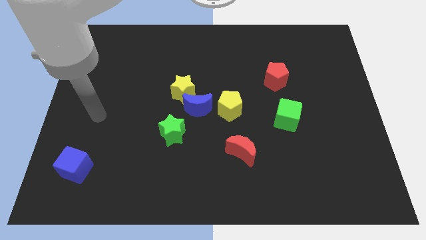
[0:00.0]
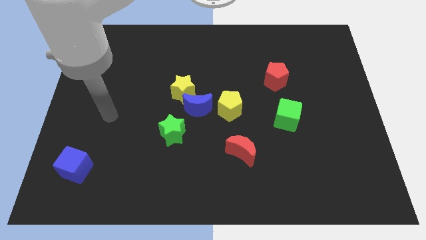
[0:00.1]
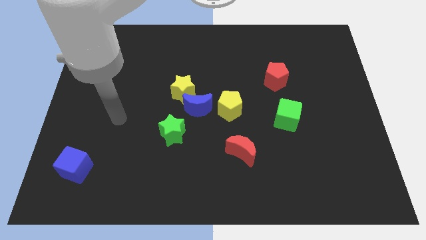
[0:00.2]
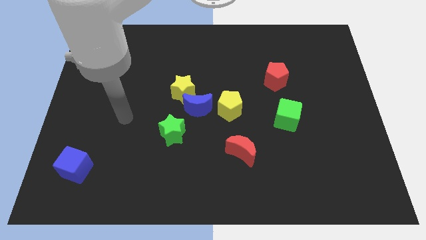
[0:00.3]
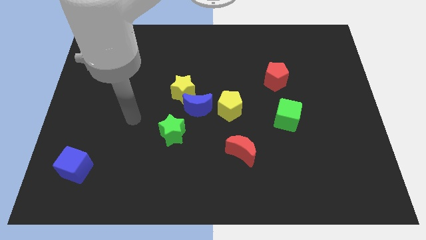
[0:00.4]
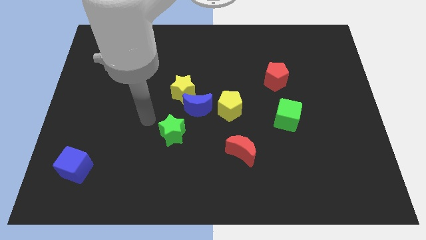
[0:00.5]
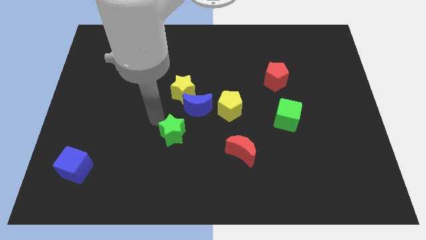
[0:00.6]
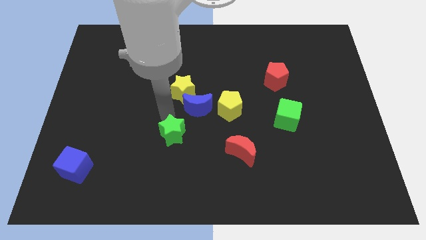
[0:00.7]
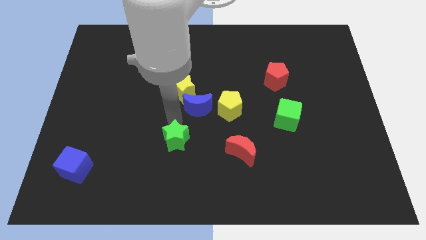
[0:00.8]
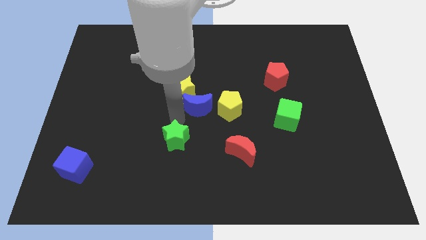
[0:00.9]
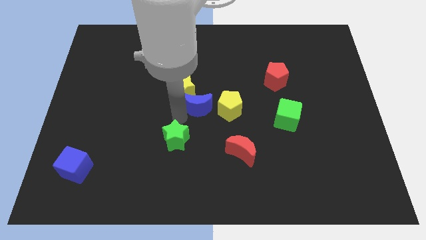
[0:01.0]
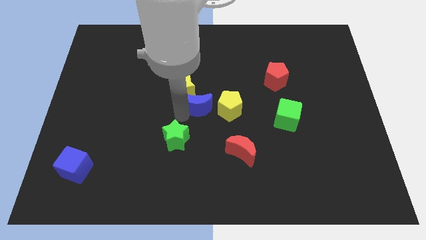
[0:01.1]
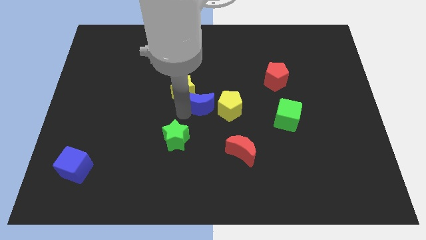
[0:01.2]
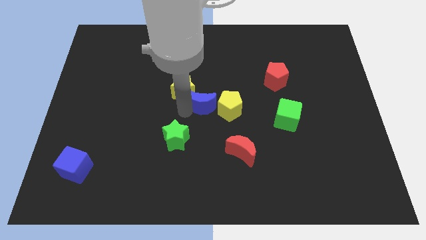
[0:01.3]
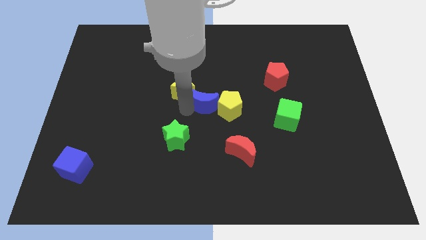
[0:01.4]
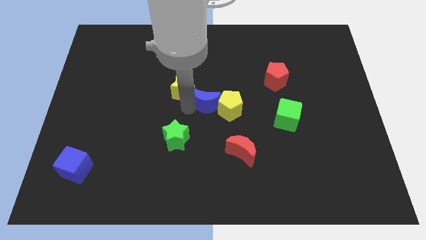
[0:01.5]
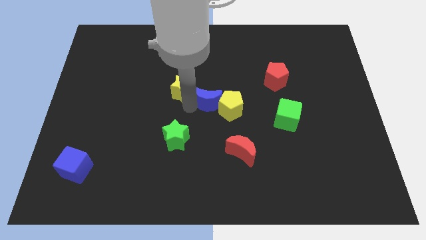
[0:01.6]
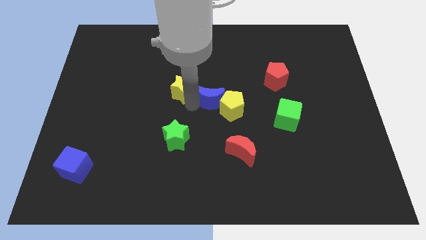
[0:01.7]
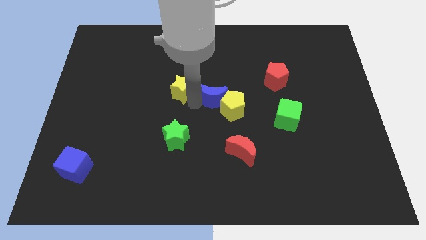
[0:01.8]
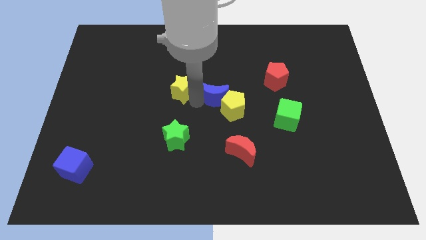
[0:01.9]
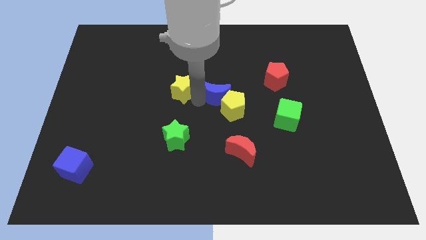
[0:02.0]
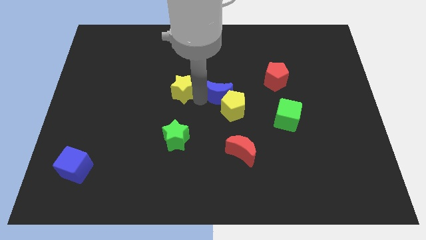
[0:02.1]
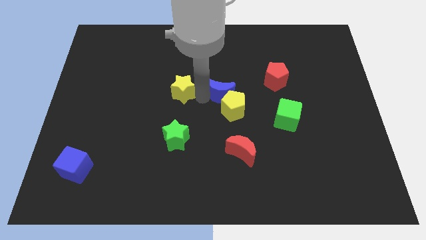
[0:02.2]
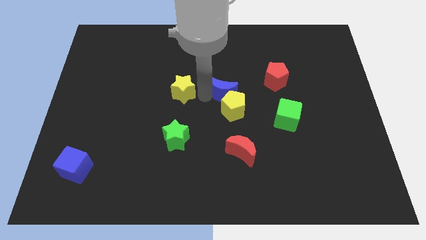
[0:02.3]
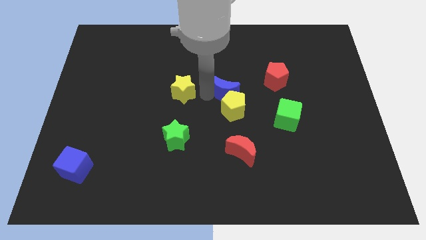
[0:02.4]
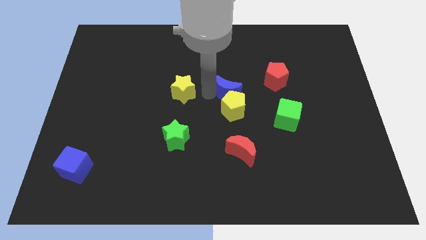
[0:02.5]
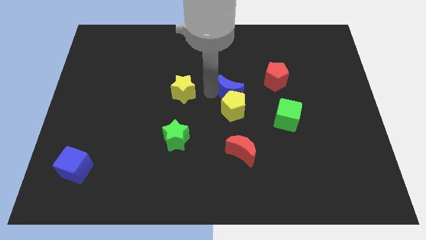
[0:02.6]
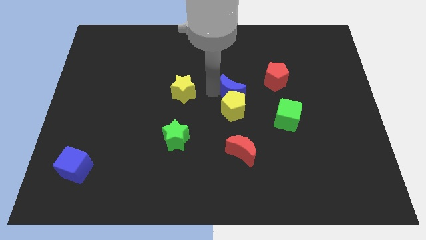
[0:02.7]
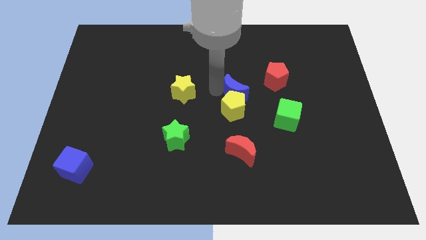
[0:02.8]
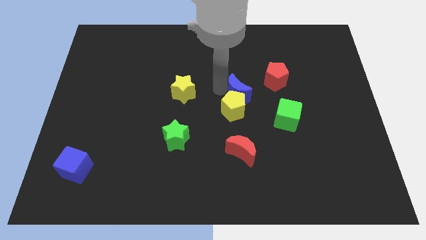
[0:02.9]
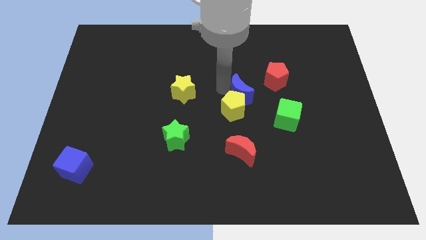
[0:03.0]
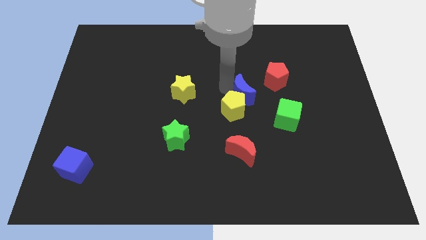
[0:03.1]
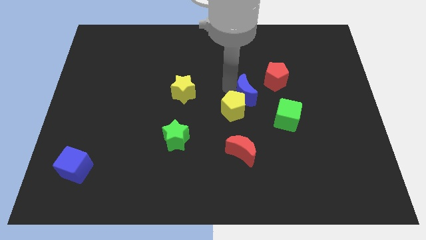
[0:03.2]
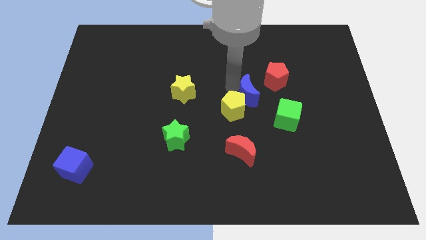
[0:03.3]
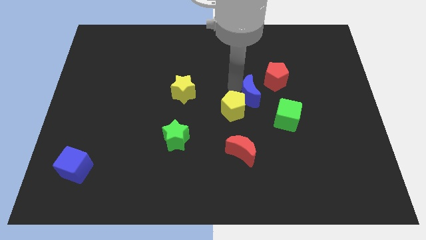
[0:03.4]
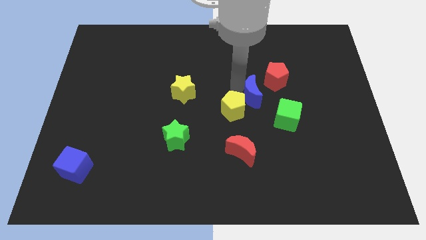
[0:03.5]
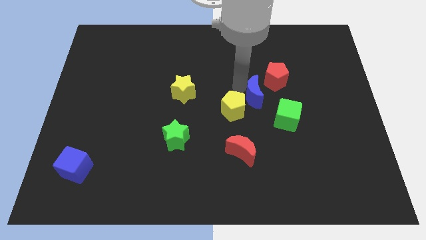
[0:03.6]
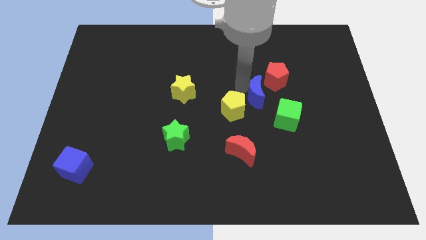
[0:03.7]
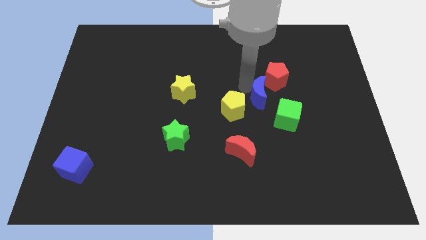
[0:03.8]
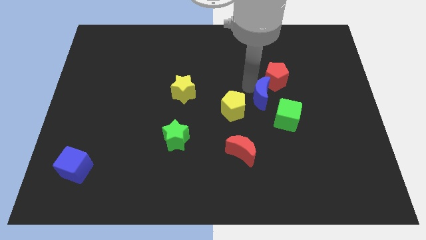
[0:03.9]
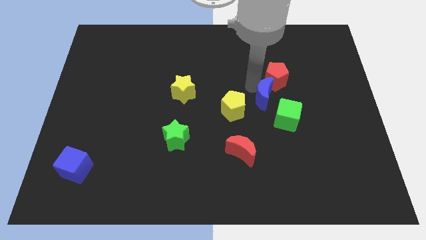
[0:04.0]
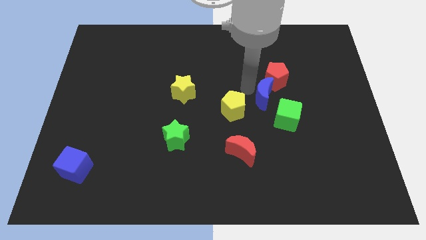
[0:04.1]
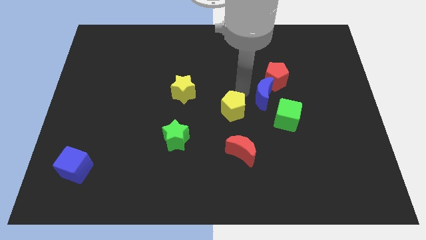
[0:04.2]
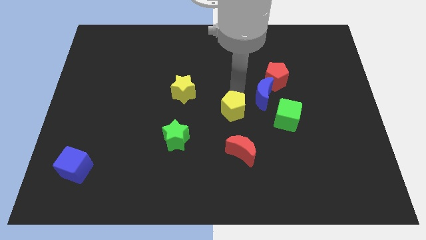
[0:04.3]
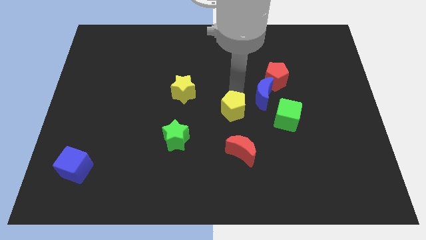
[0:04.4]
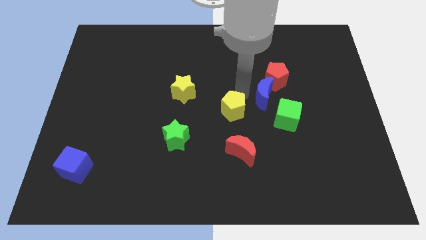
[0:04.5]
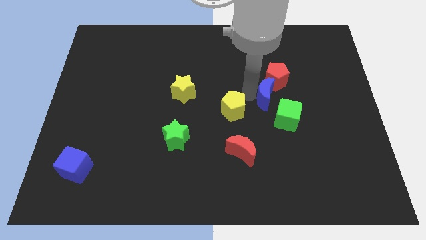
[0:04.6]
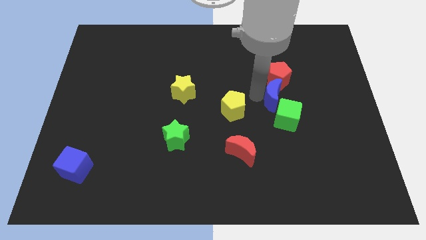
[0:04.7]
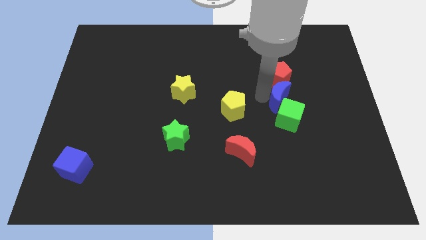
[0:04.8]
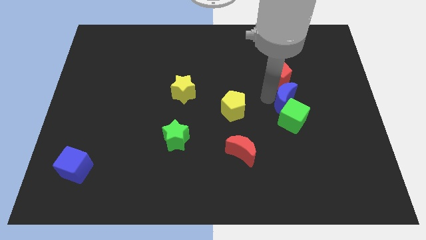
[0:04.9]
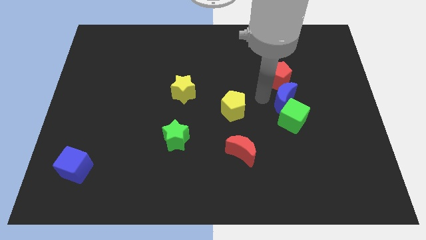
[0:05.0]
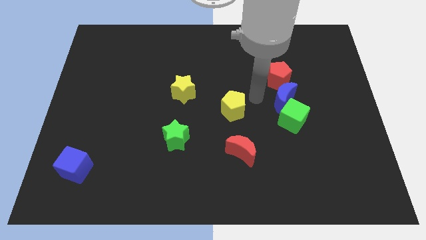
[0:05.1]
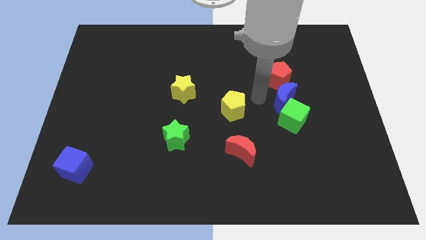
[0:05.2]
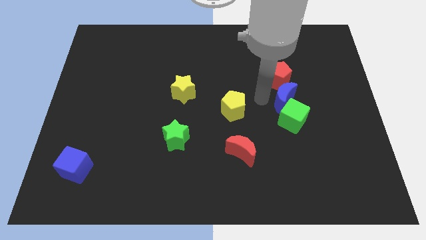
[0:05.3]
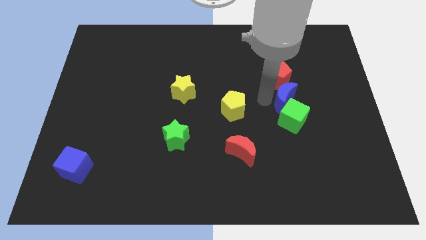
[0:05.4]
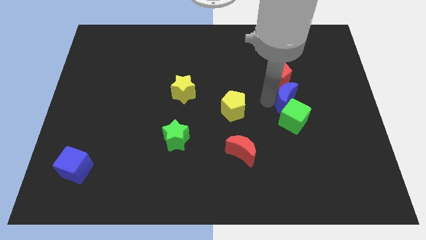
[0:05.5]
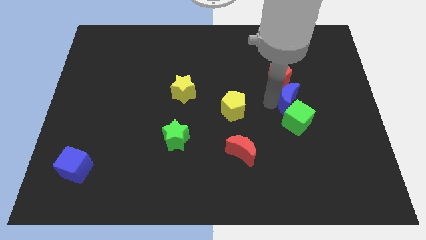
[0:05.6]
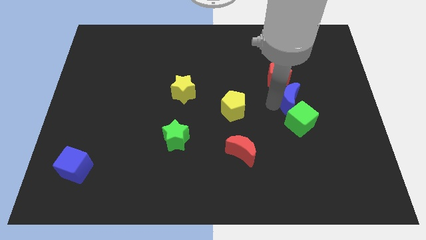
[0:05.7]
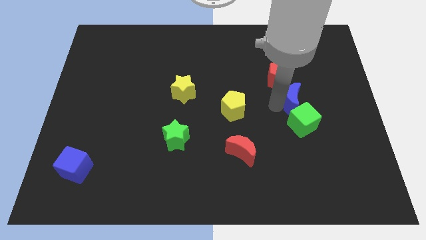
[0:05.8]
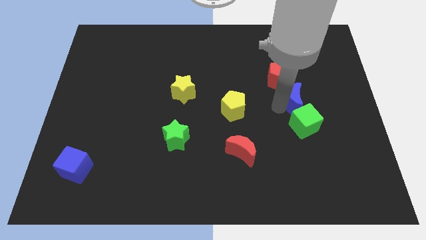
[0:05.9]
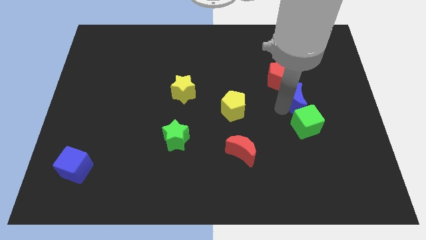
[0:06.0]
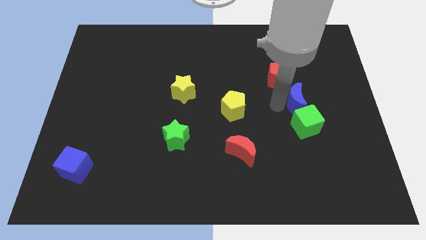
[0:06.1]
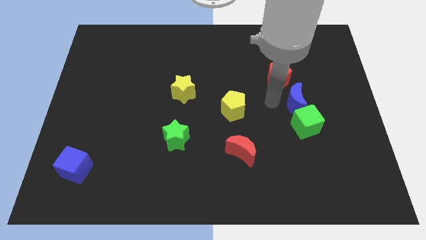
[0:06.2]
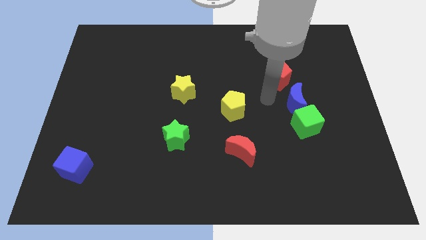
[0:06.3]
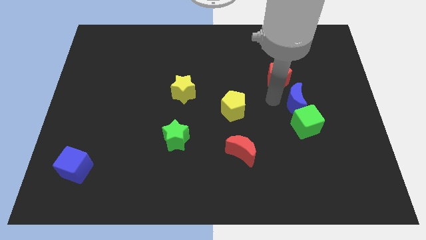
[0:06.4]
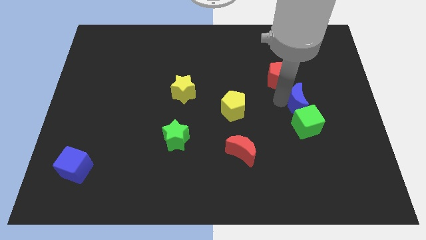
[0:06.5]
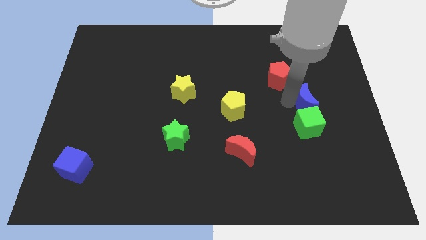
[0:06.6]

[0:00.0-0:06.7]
move the blue moon diagonally up and to the right of the green cube

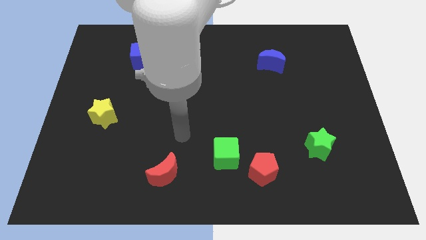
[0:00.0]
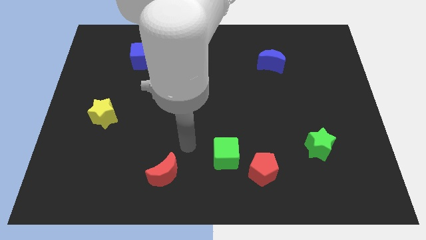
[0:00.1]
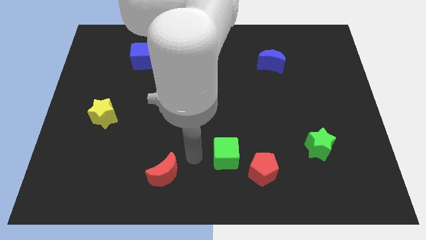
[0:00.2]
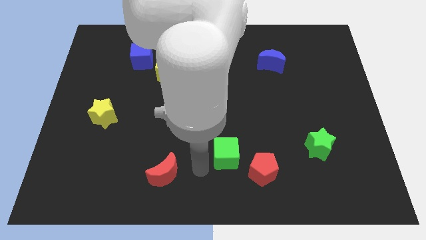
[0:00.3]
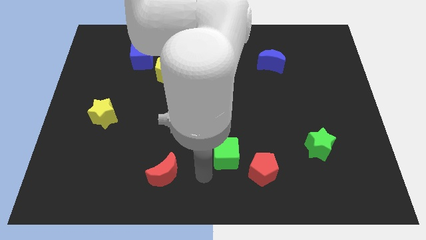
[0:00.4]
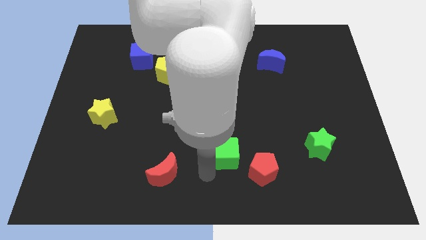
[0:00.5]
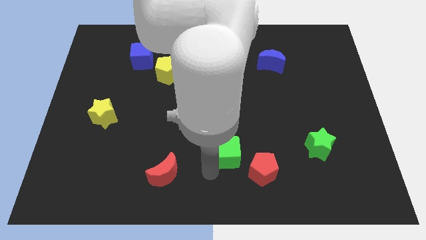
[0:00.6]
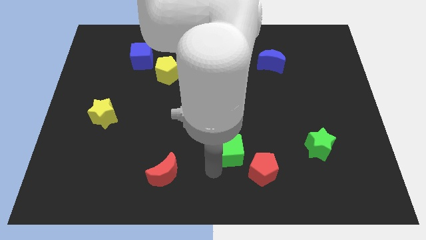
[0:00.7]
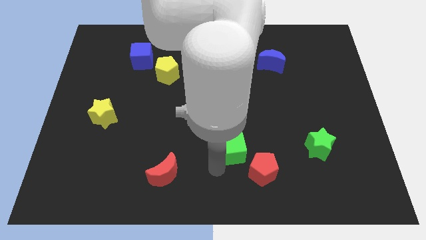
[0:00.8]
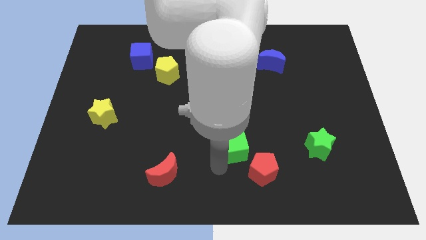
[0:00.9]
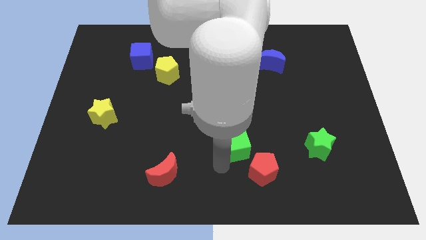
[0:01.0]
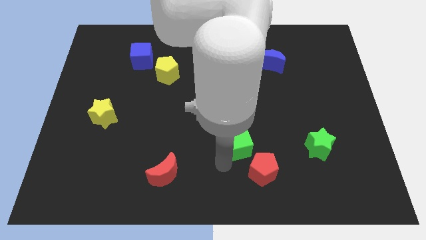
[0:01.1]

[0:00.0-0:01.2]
push the green cube to the top side of the red pentagon
